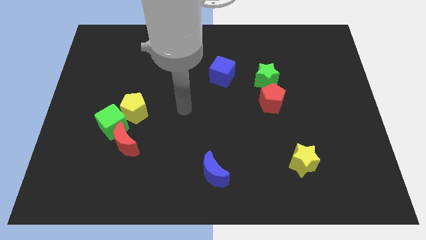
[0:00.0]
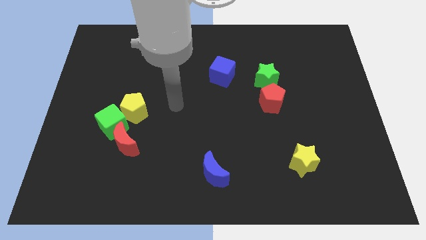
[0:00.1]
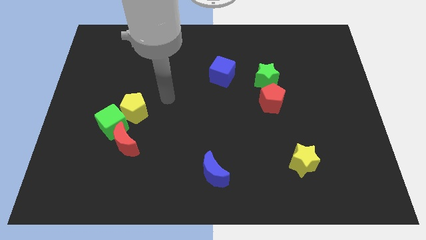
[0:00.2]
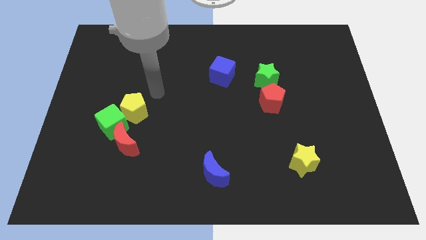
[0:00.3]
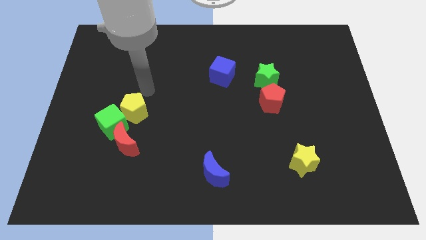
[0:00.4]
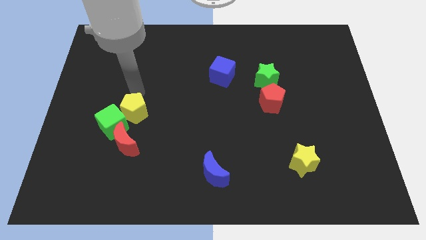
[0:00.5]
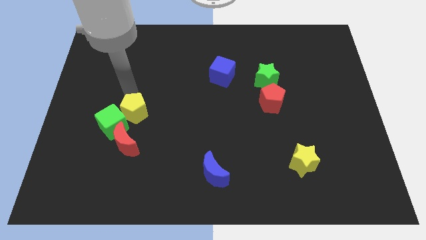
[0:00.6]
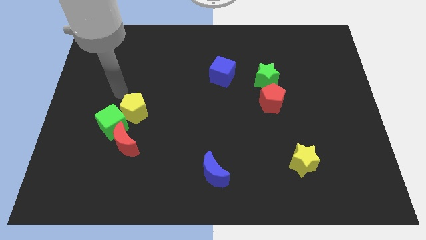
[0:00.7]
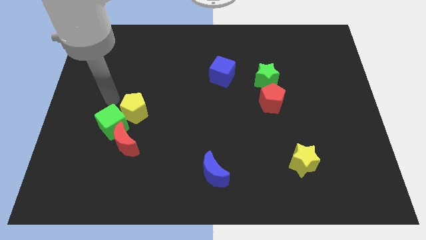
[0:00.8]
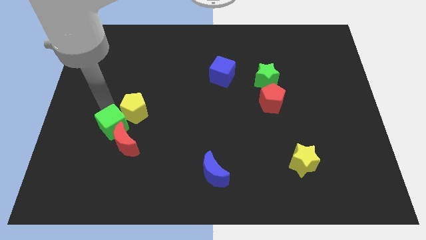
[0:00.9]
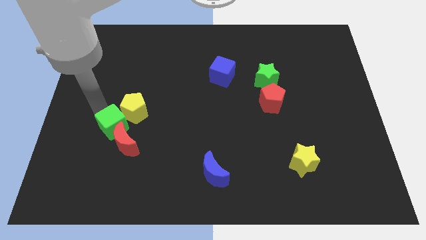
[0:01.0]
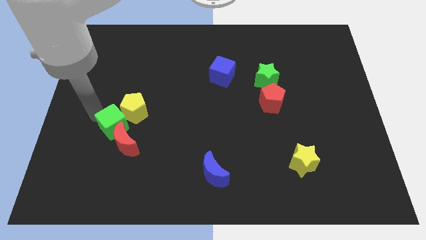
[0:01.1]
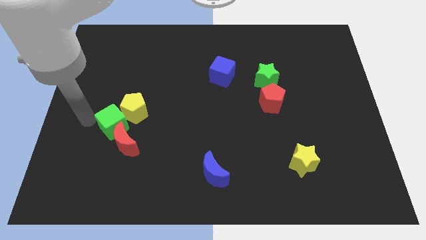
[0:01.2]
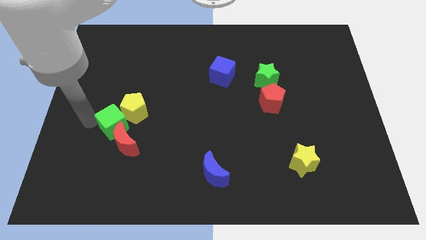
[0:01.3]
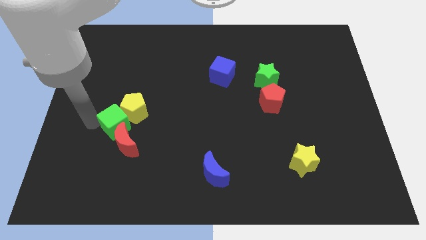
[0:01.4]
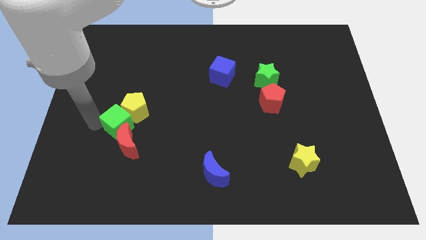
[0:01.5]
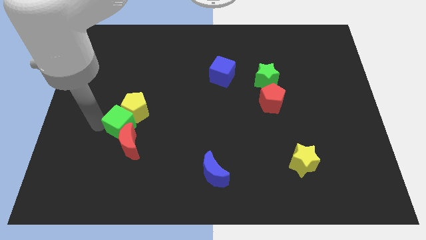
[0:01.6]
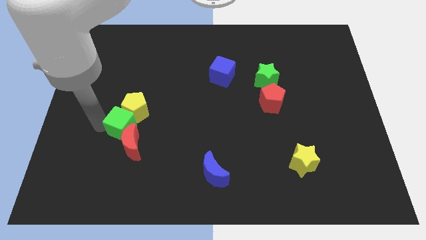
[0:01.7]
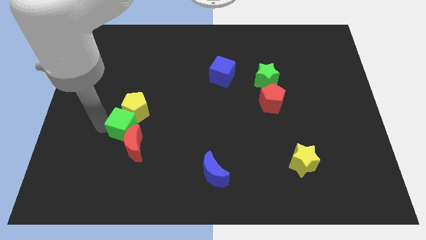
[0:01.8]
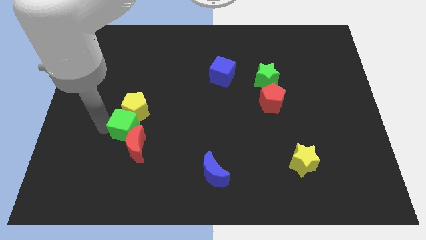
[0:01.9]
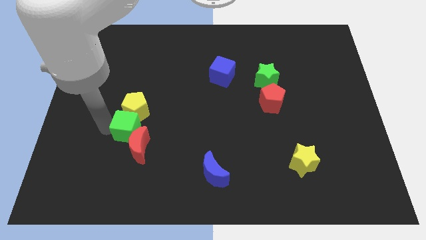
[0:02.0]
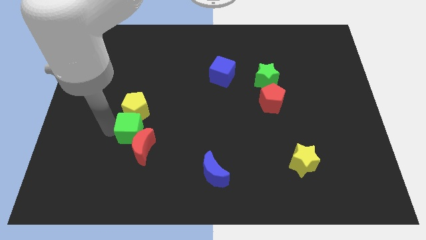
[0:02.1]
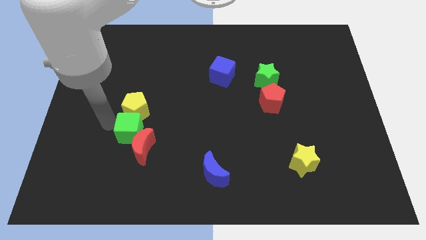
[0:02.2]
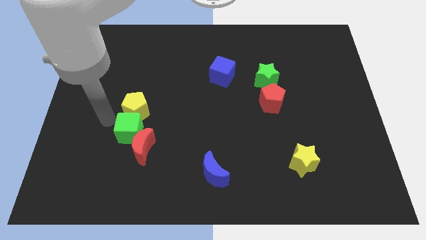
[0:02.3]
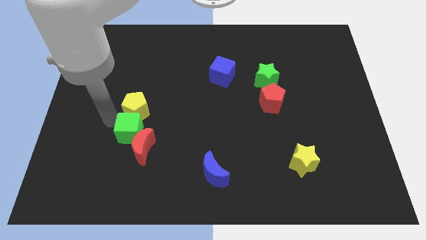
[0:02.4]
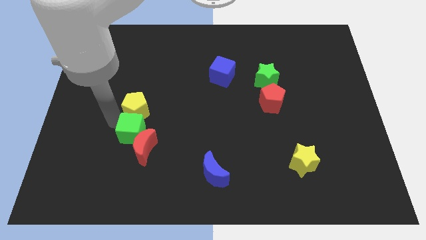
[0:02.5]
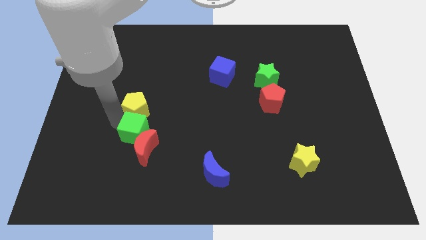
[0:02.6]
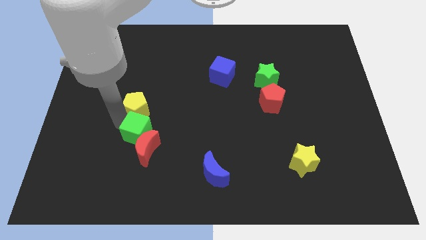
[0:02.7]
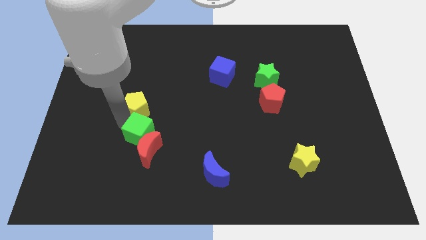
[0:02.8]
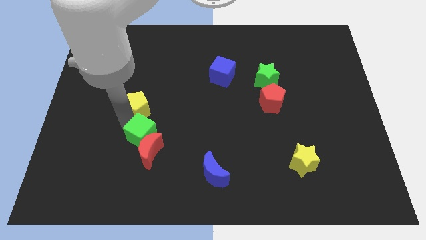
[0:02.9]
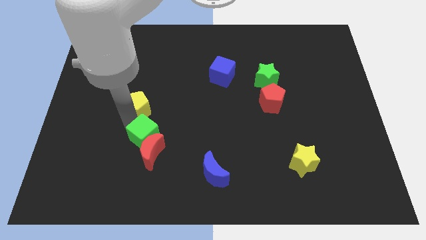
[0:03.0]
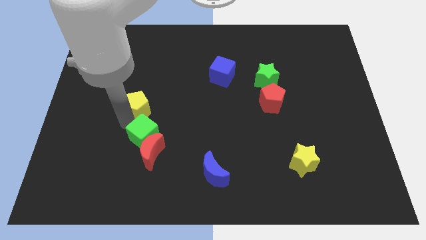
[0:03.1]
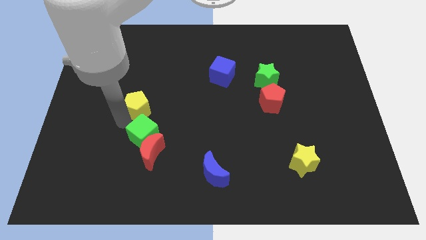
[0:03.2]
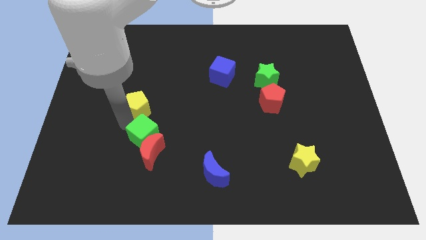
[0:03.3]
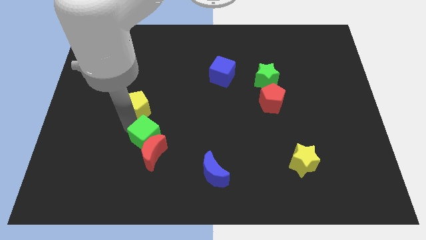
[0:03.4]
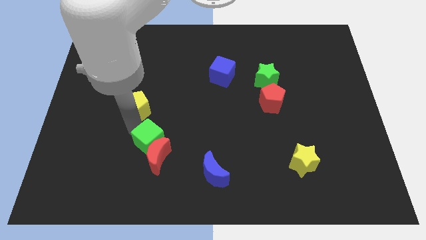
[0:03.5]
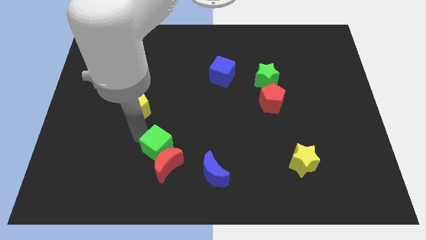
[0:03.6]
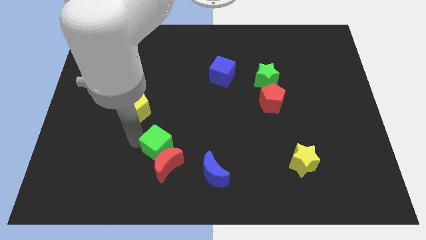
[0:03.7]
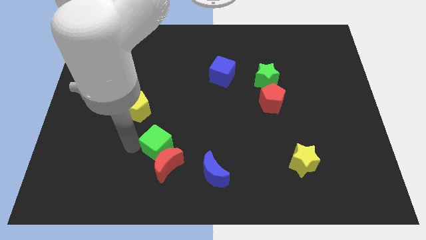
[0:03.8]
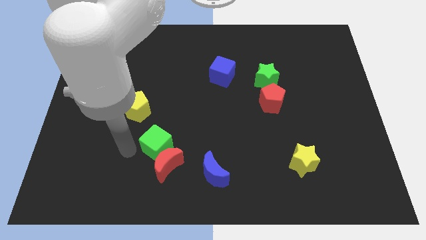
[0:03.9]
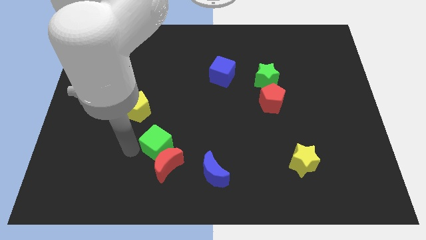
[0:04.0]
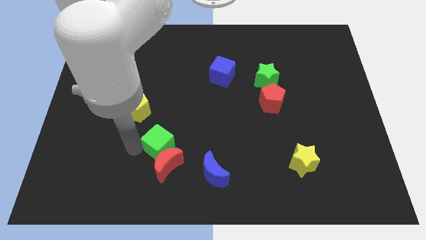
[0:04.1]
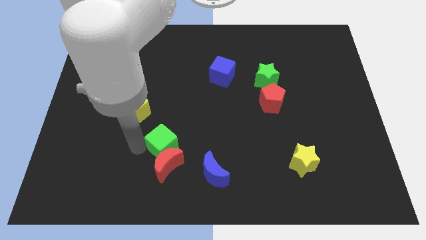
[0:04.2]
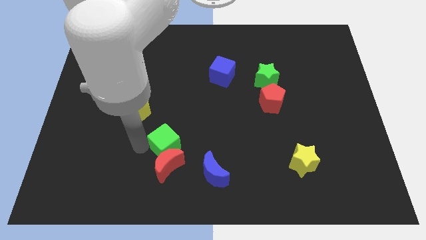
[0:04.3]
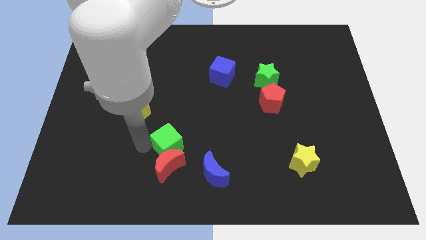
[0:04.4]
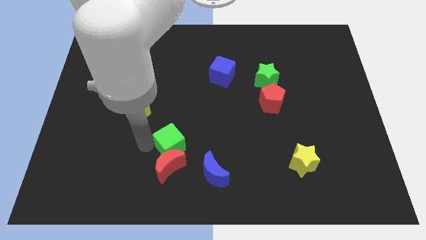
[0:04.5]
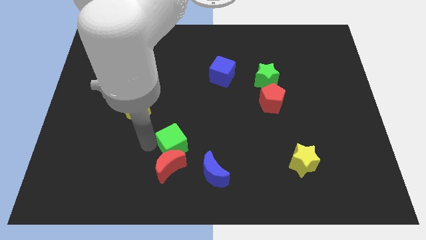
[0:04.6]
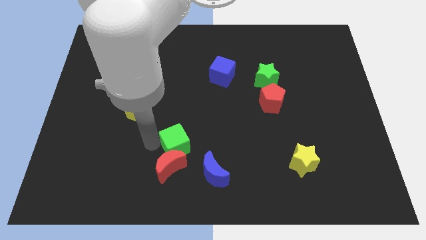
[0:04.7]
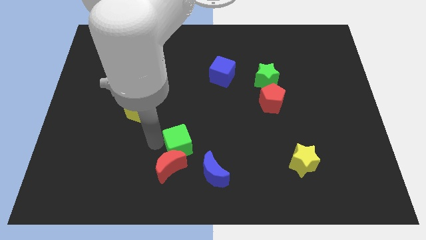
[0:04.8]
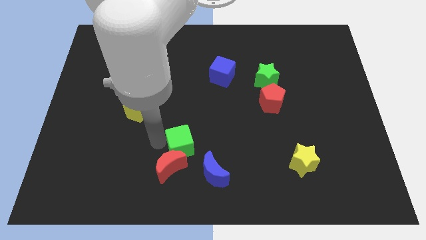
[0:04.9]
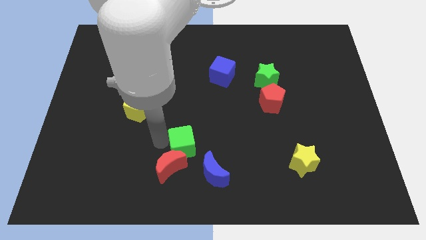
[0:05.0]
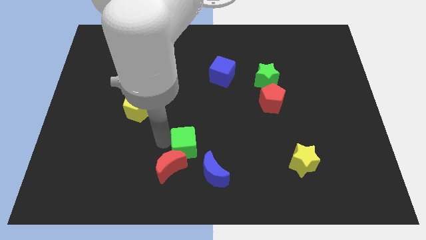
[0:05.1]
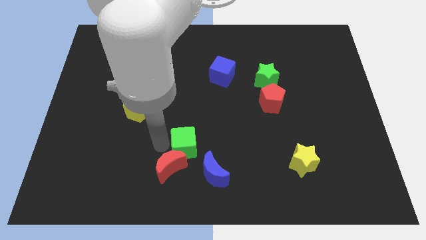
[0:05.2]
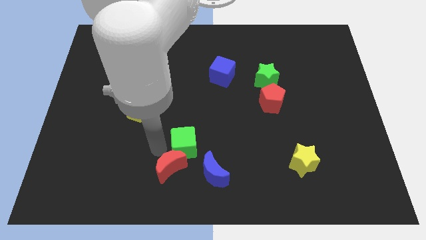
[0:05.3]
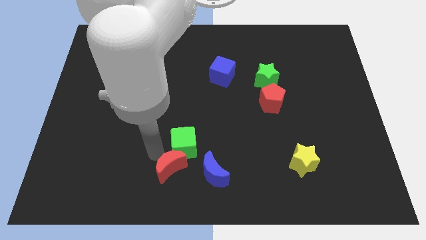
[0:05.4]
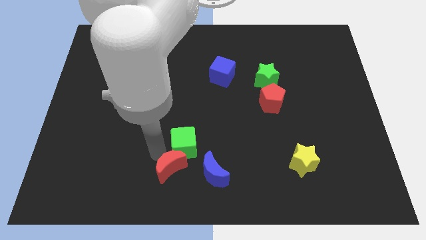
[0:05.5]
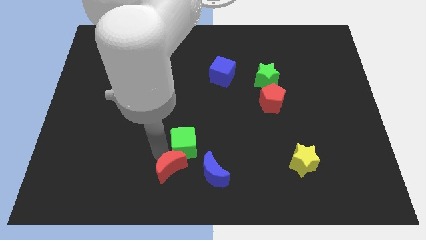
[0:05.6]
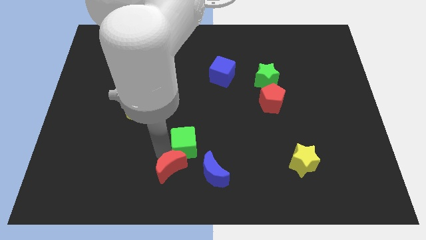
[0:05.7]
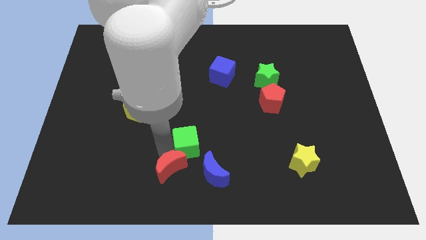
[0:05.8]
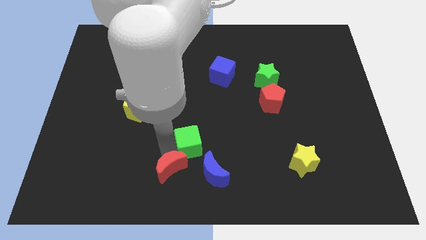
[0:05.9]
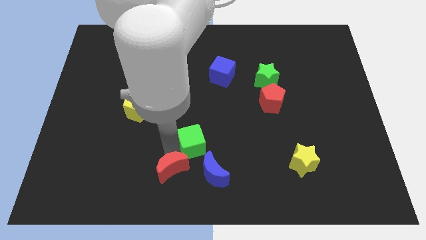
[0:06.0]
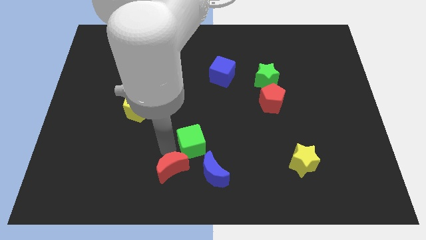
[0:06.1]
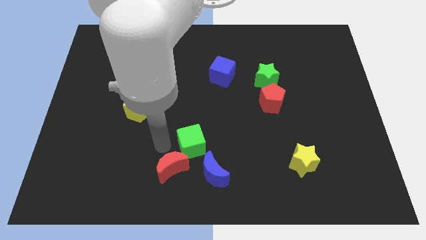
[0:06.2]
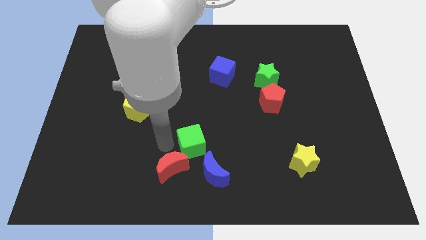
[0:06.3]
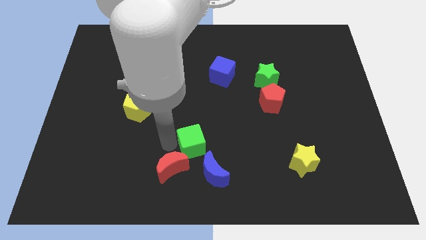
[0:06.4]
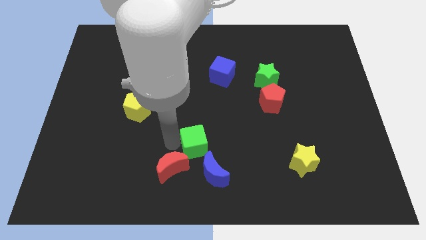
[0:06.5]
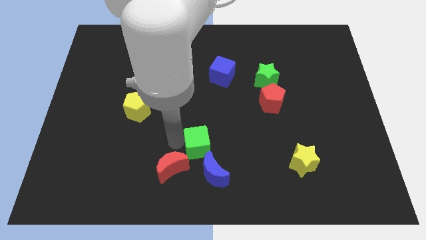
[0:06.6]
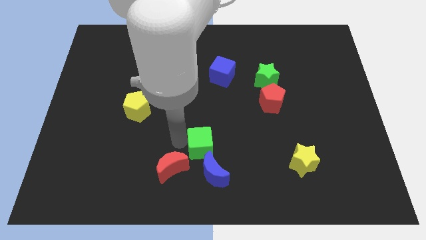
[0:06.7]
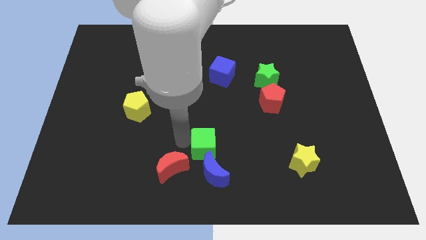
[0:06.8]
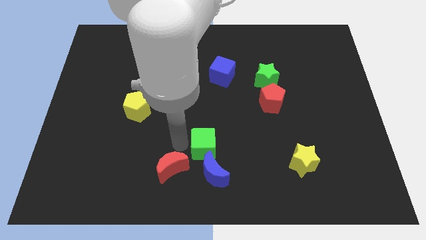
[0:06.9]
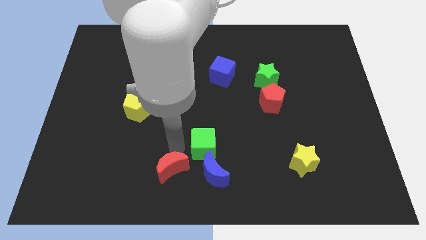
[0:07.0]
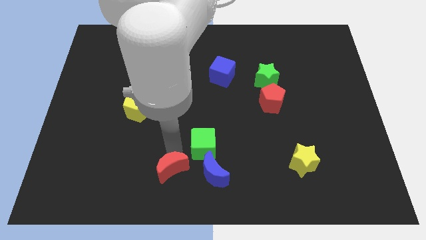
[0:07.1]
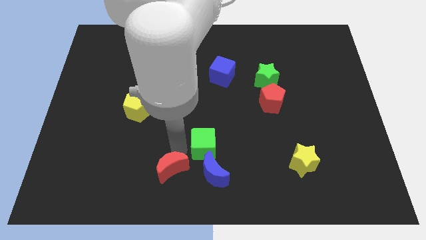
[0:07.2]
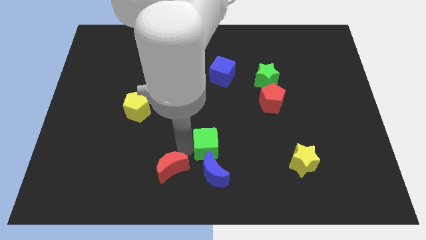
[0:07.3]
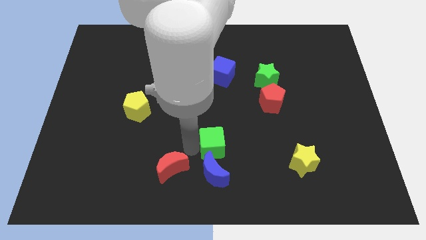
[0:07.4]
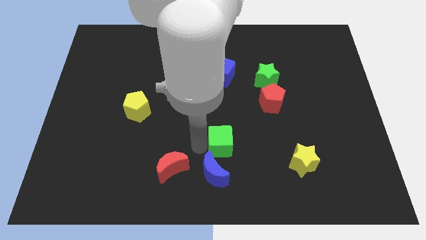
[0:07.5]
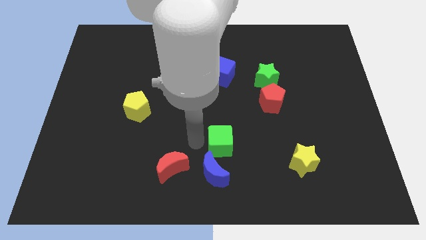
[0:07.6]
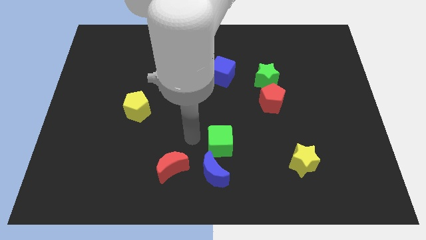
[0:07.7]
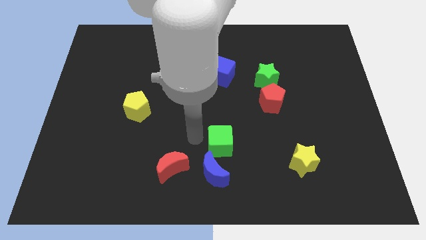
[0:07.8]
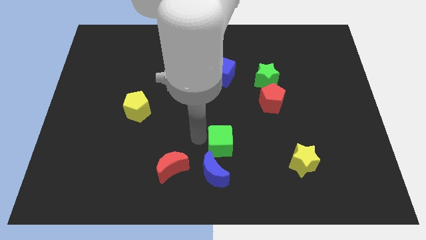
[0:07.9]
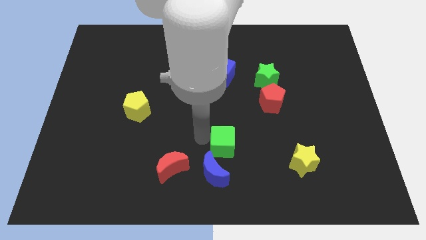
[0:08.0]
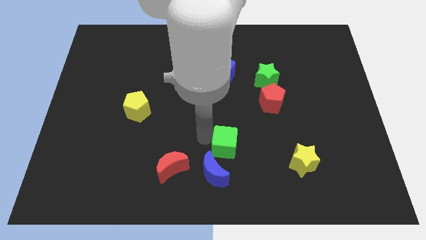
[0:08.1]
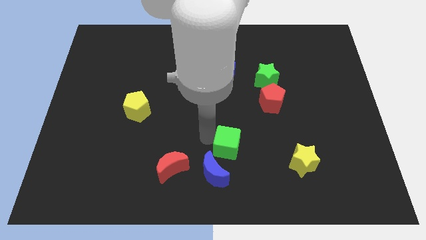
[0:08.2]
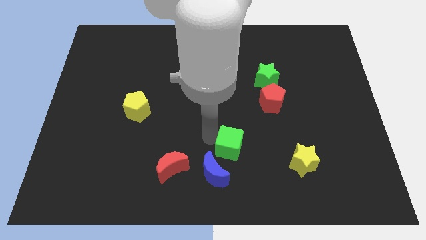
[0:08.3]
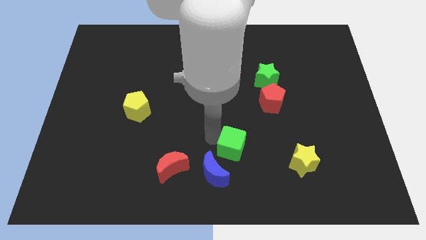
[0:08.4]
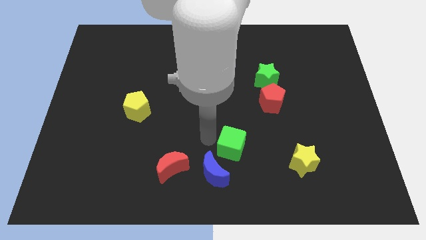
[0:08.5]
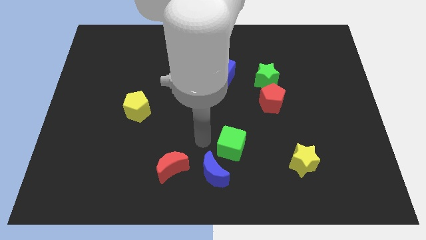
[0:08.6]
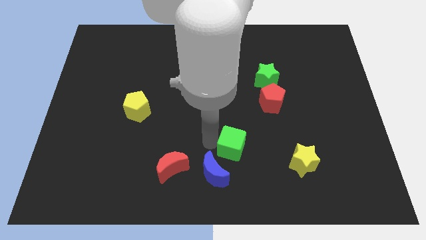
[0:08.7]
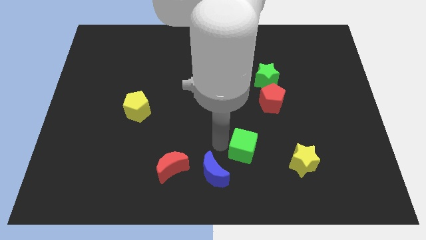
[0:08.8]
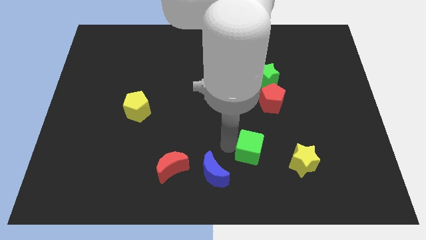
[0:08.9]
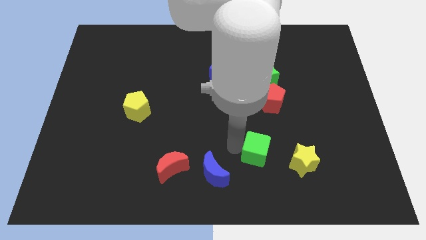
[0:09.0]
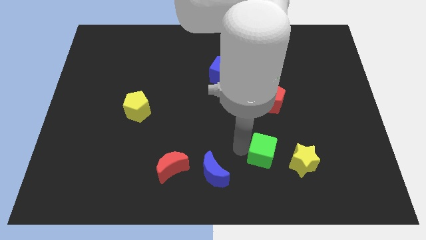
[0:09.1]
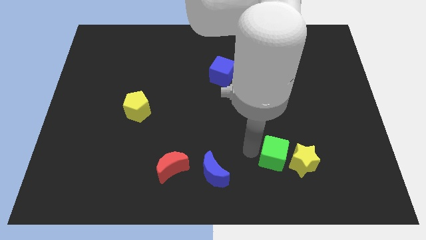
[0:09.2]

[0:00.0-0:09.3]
slide the green cube to the yellow star
